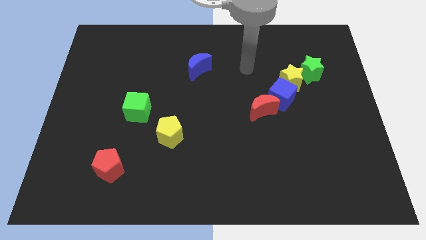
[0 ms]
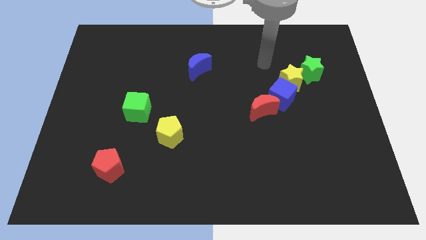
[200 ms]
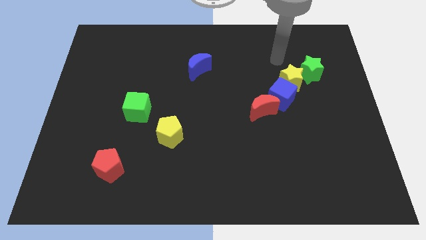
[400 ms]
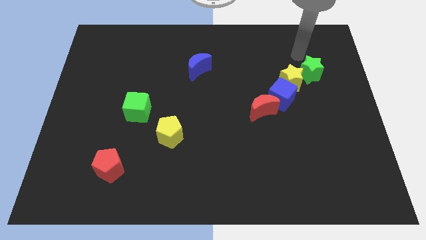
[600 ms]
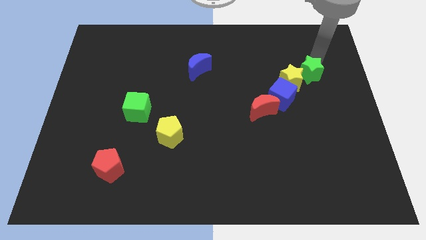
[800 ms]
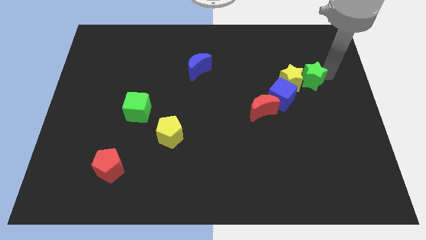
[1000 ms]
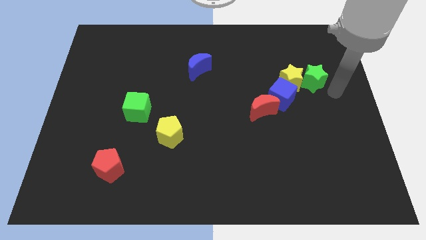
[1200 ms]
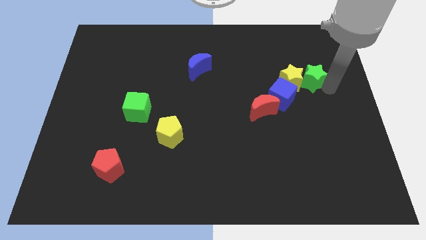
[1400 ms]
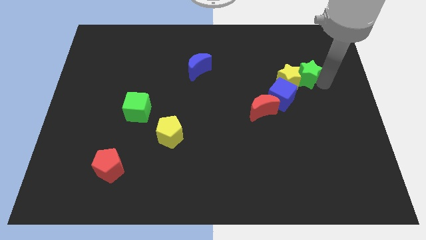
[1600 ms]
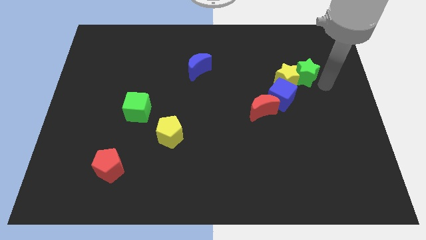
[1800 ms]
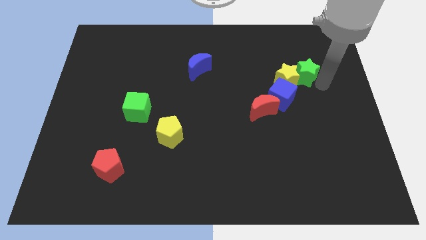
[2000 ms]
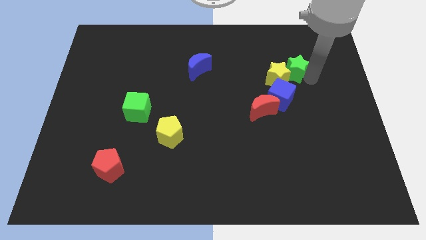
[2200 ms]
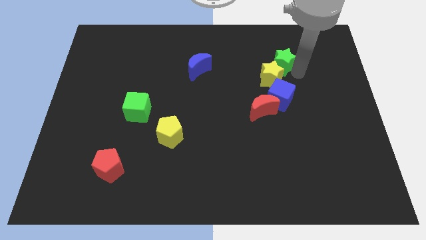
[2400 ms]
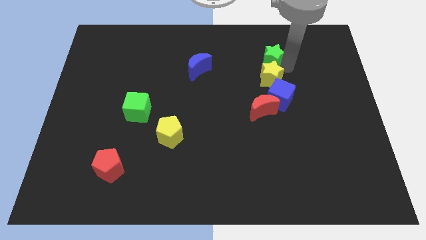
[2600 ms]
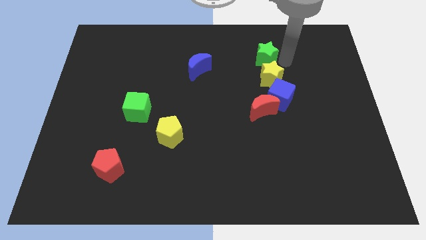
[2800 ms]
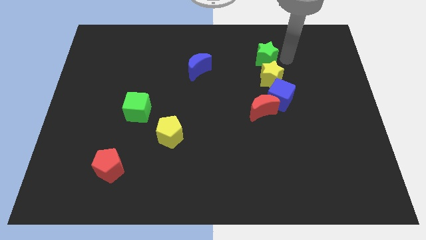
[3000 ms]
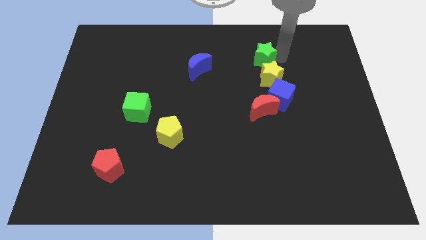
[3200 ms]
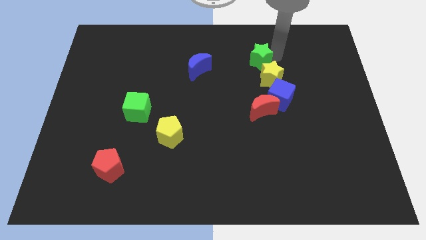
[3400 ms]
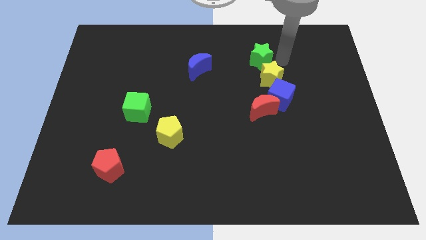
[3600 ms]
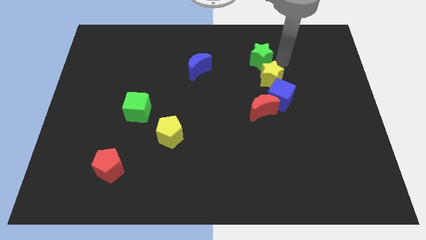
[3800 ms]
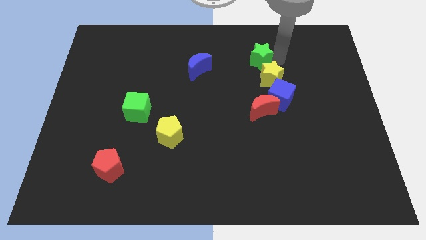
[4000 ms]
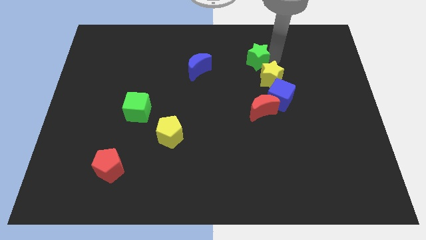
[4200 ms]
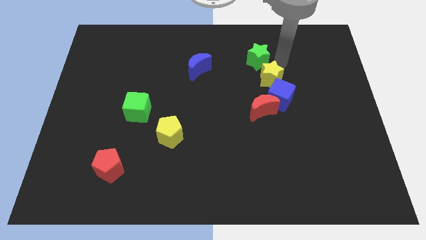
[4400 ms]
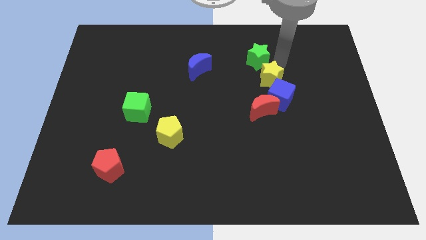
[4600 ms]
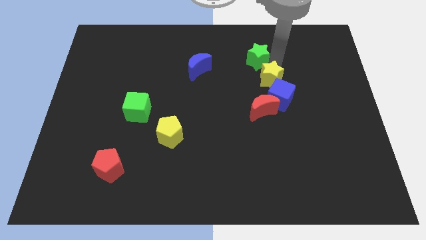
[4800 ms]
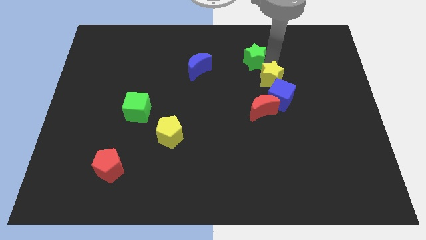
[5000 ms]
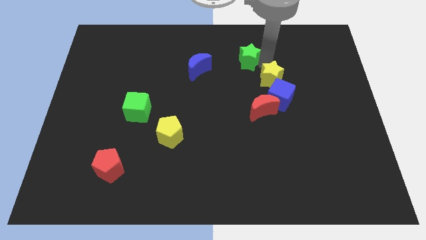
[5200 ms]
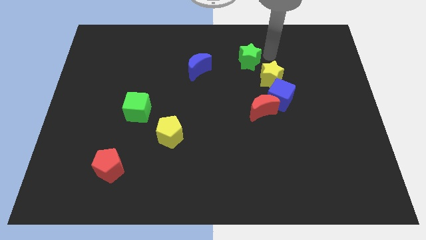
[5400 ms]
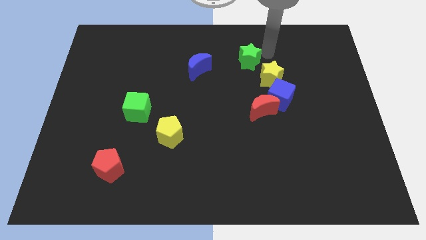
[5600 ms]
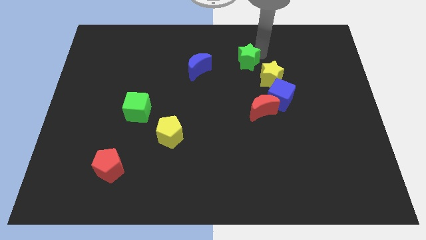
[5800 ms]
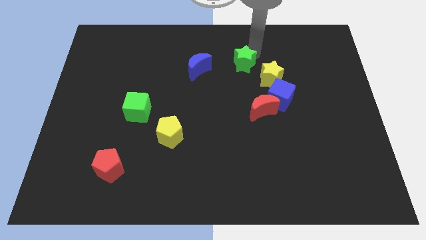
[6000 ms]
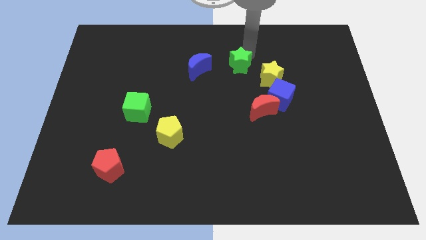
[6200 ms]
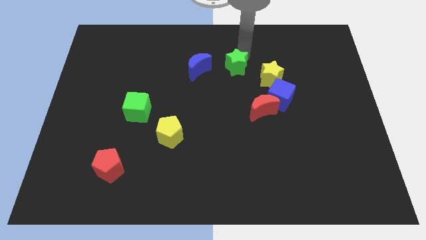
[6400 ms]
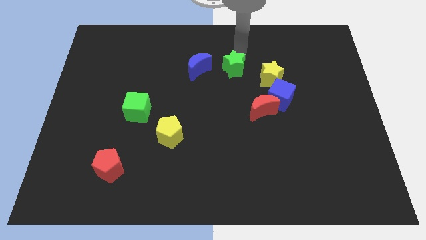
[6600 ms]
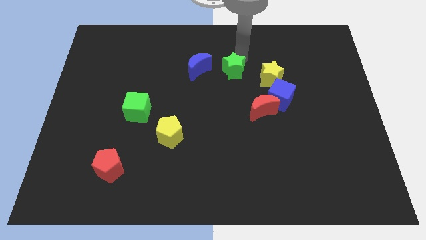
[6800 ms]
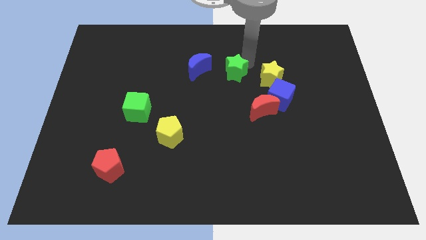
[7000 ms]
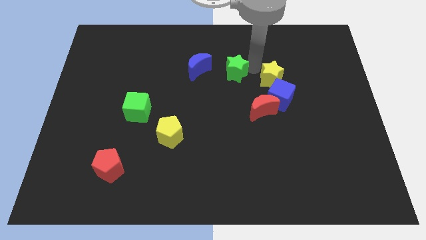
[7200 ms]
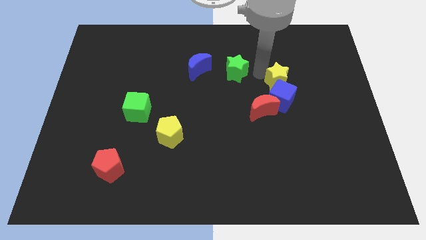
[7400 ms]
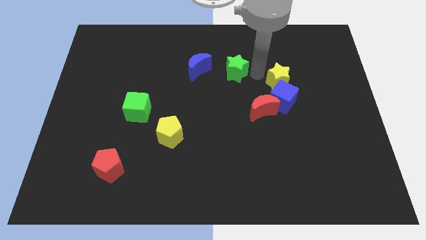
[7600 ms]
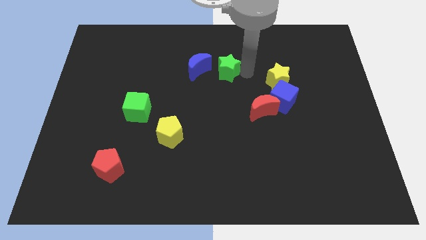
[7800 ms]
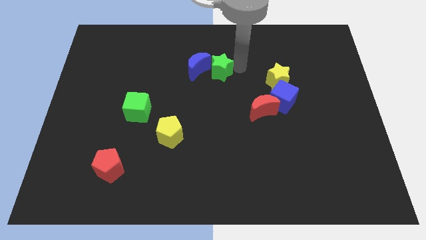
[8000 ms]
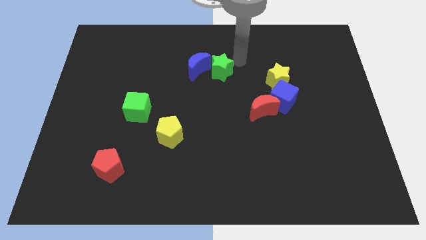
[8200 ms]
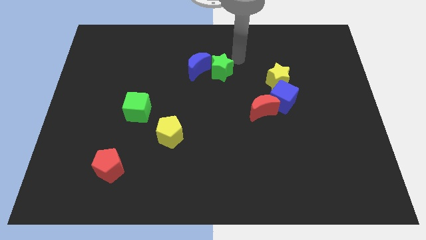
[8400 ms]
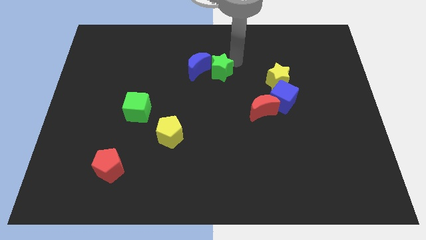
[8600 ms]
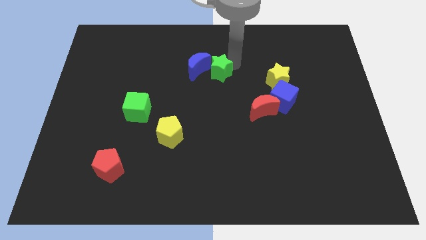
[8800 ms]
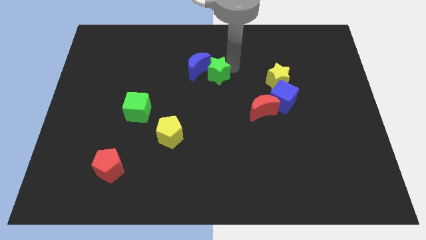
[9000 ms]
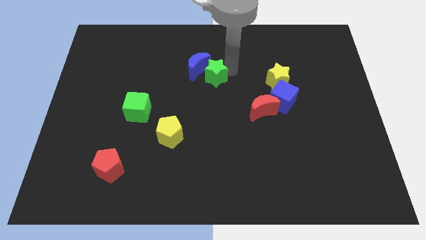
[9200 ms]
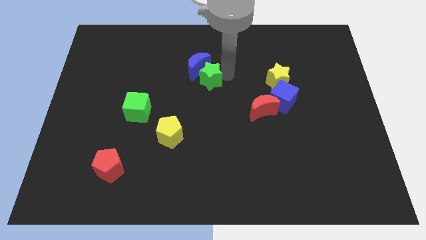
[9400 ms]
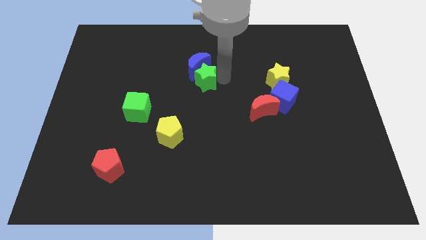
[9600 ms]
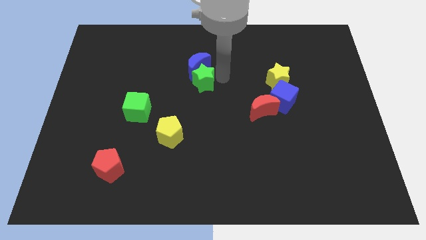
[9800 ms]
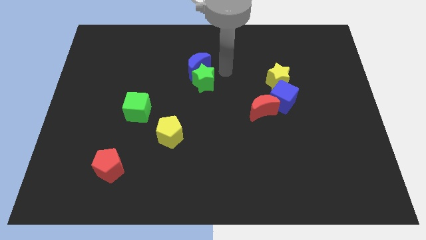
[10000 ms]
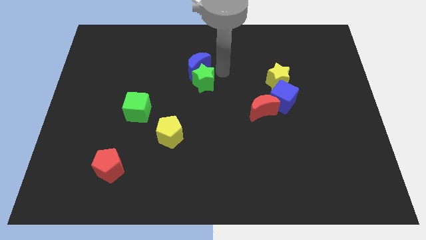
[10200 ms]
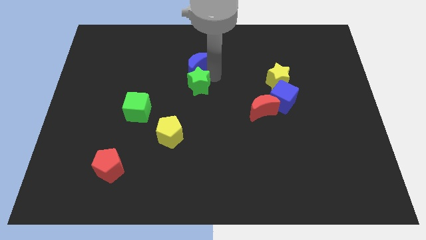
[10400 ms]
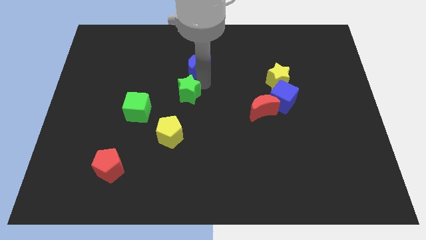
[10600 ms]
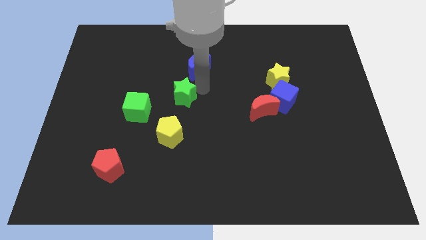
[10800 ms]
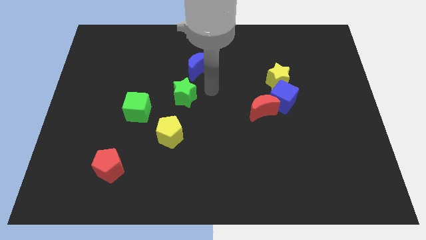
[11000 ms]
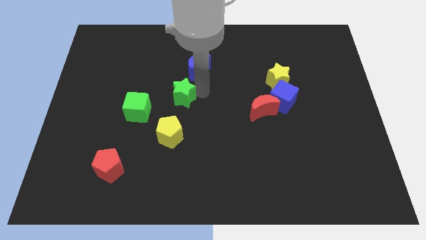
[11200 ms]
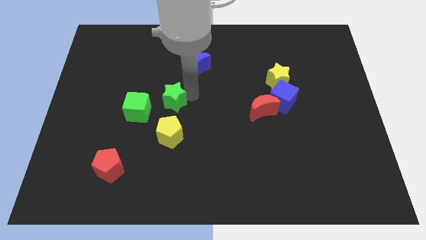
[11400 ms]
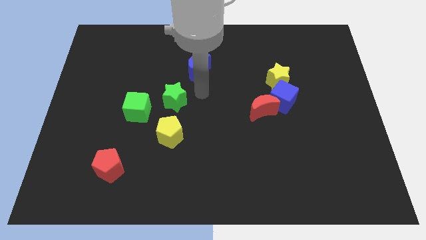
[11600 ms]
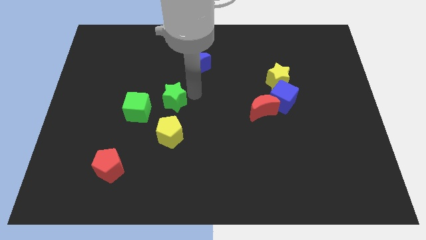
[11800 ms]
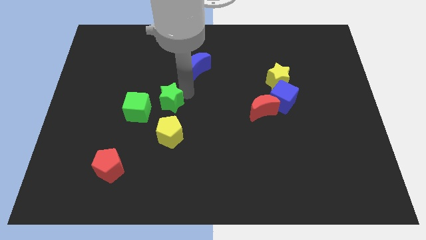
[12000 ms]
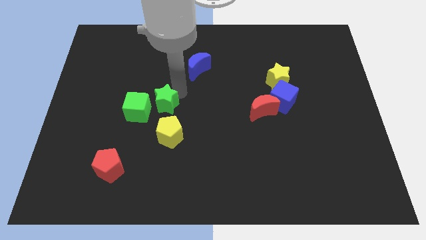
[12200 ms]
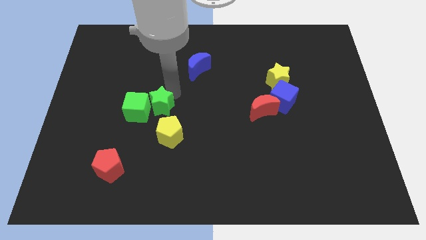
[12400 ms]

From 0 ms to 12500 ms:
move the green star next to the green cube

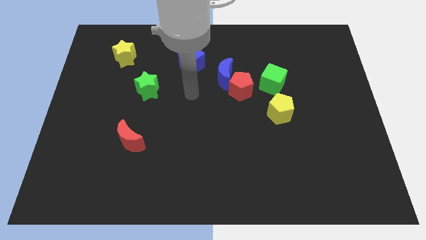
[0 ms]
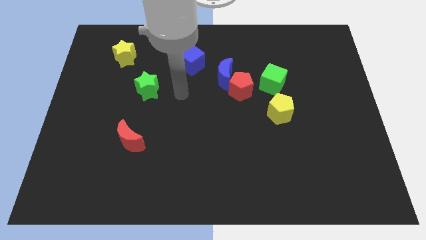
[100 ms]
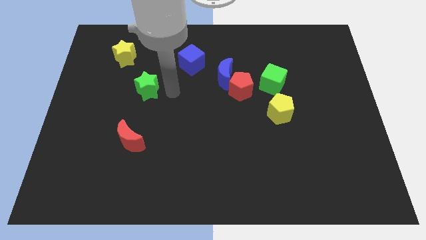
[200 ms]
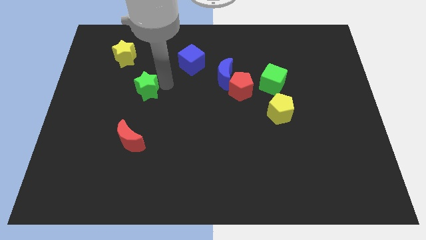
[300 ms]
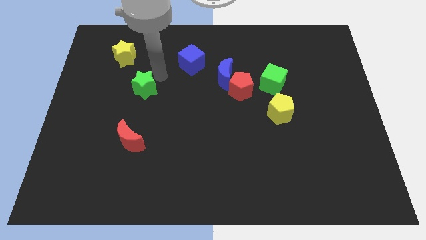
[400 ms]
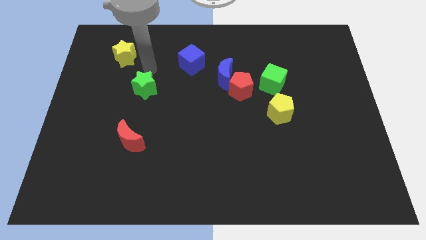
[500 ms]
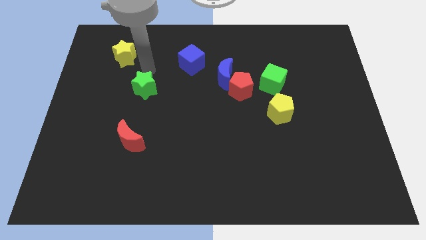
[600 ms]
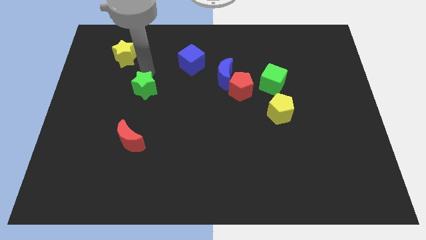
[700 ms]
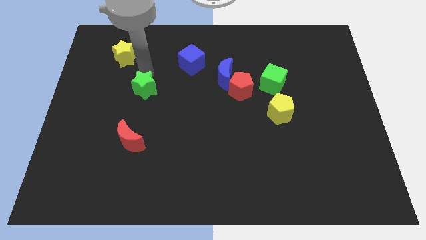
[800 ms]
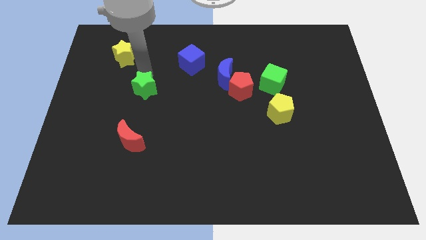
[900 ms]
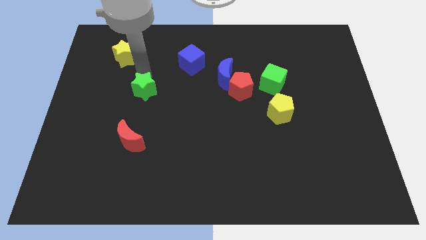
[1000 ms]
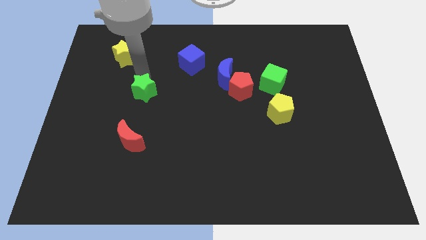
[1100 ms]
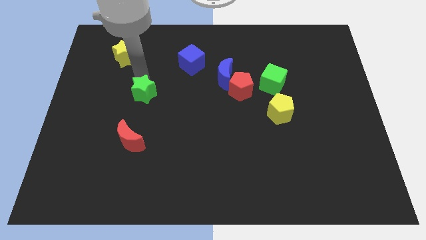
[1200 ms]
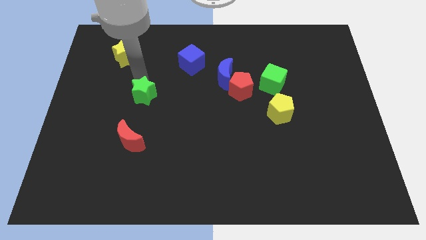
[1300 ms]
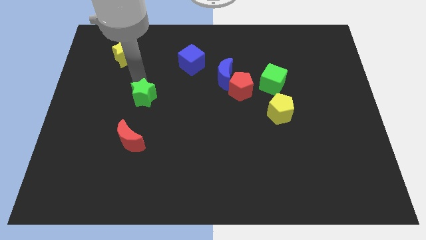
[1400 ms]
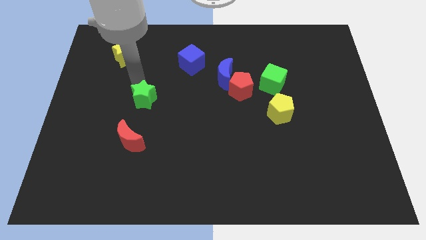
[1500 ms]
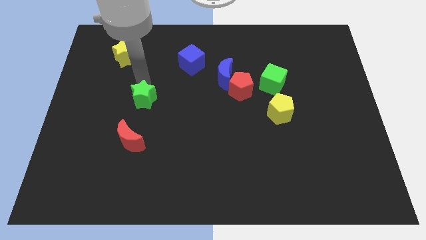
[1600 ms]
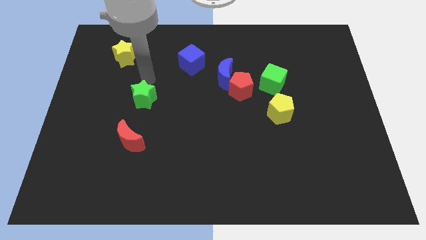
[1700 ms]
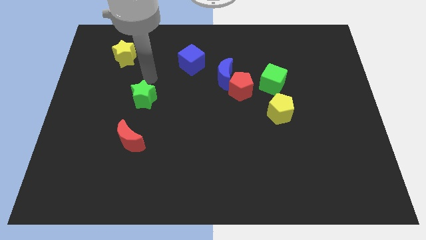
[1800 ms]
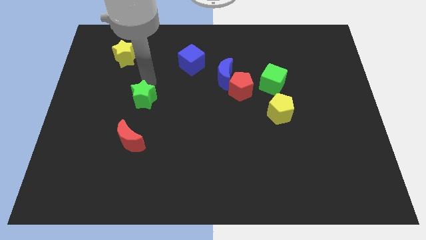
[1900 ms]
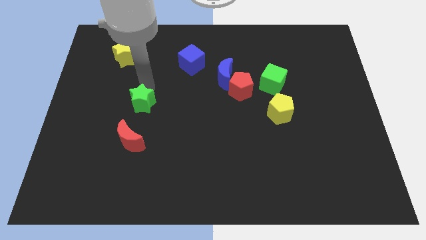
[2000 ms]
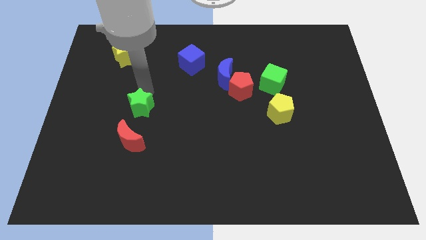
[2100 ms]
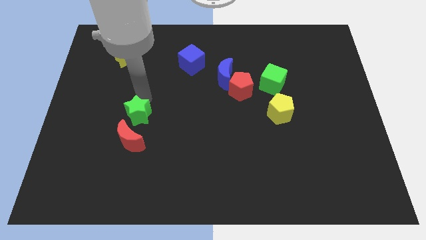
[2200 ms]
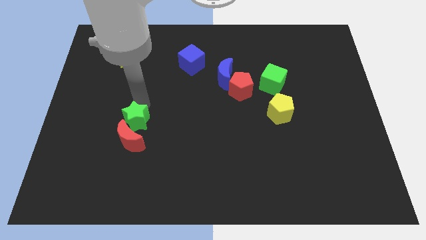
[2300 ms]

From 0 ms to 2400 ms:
move the green star close to the red moon
